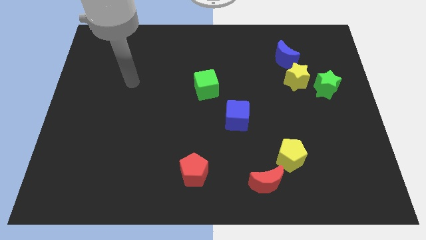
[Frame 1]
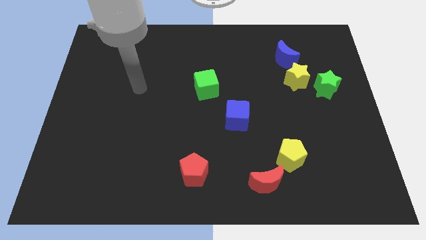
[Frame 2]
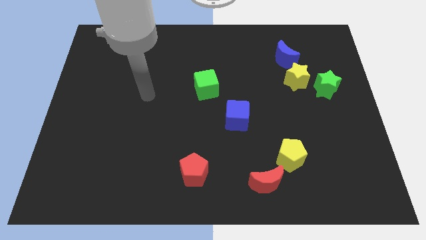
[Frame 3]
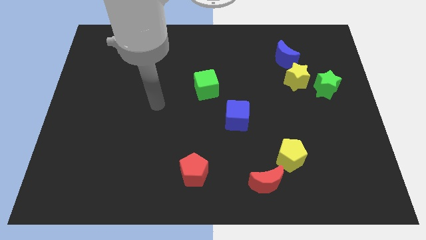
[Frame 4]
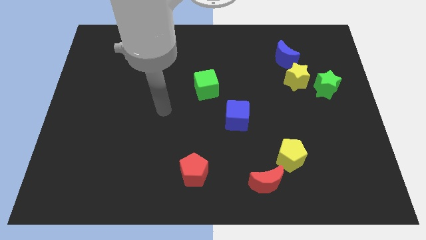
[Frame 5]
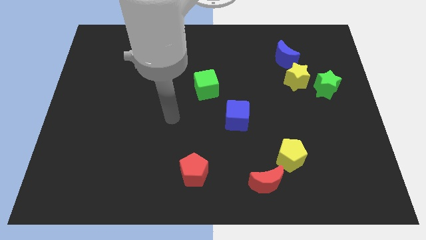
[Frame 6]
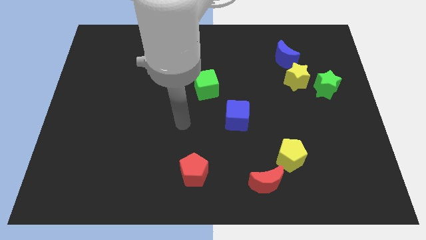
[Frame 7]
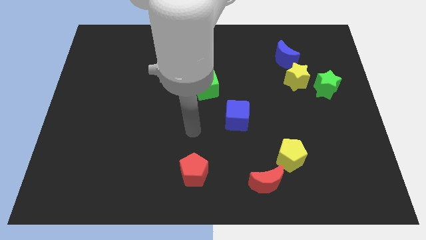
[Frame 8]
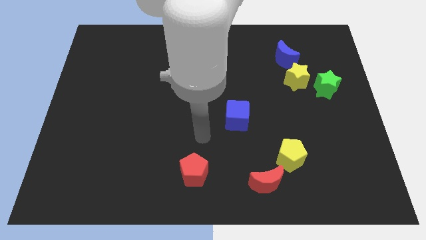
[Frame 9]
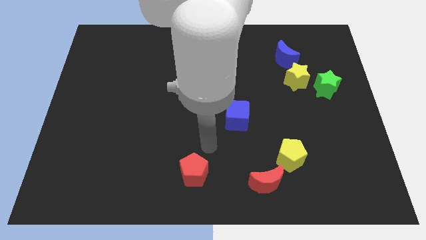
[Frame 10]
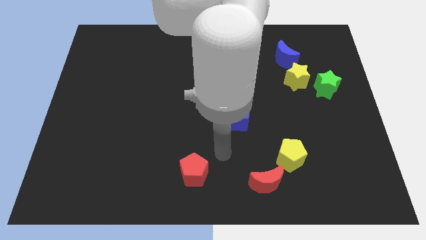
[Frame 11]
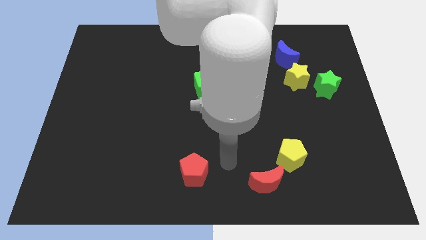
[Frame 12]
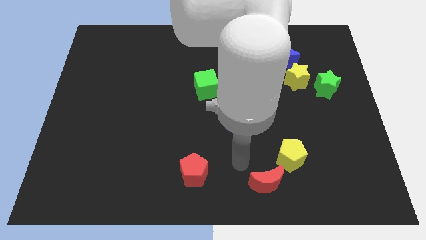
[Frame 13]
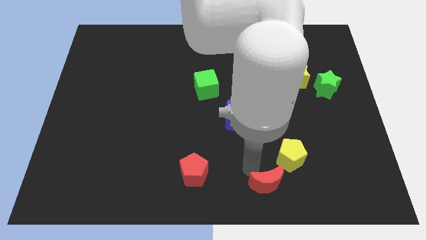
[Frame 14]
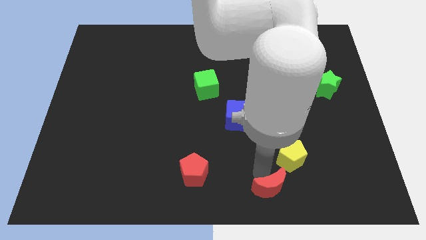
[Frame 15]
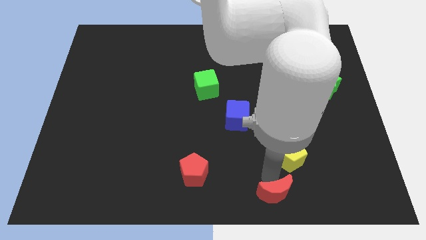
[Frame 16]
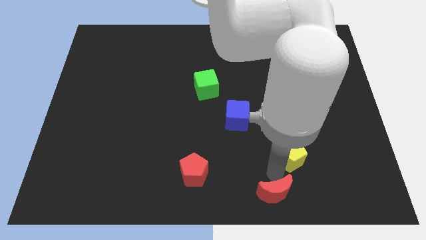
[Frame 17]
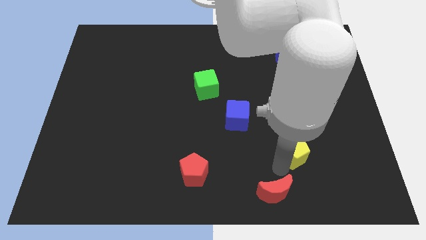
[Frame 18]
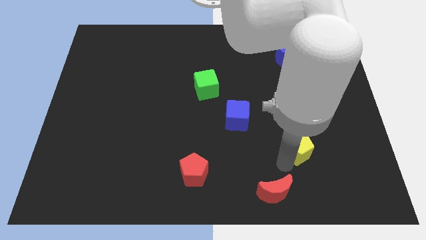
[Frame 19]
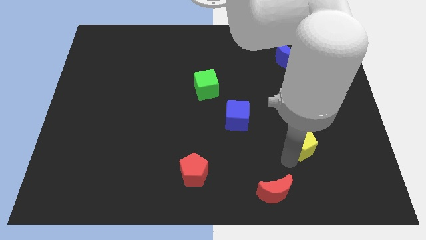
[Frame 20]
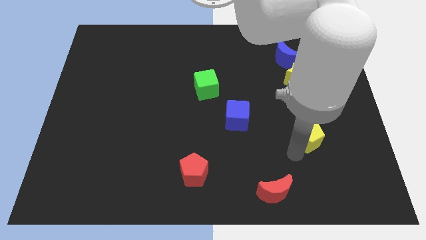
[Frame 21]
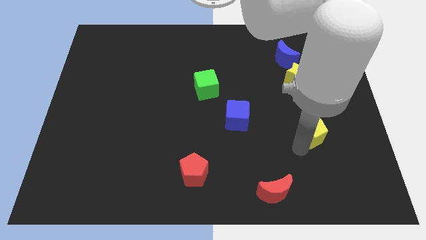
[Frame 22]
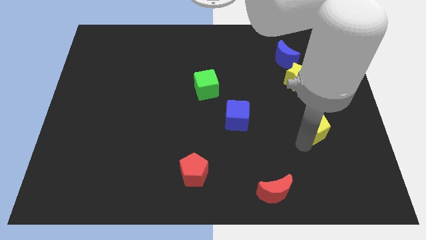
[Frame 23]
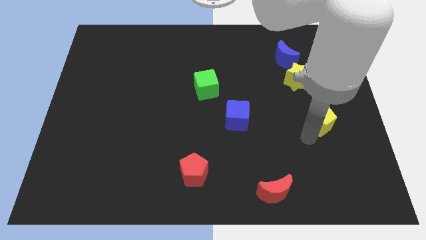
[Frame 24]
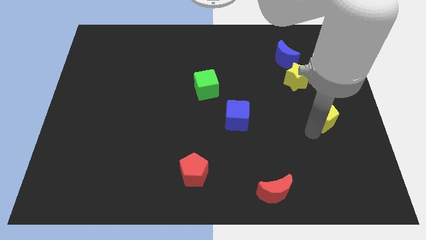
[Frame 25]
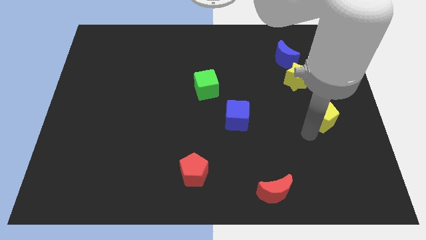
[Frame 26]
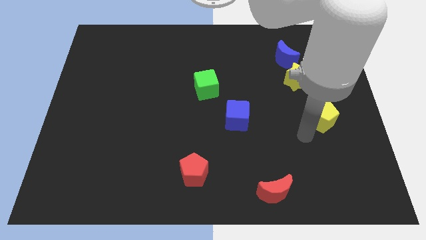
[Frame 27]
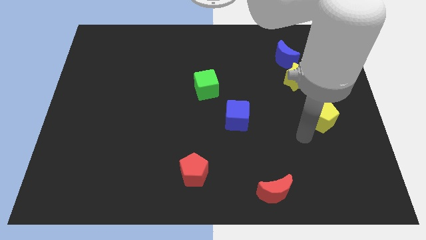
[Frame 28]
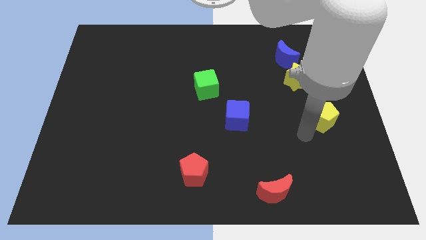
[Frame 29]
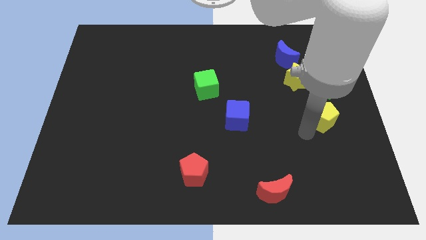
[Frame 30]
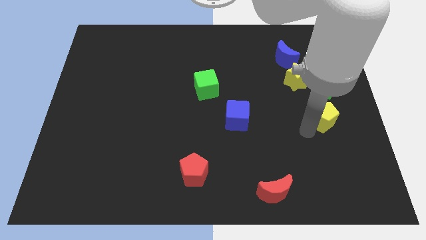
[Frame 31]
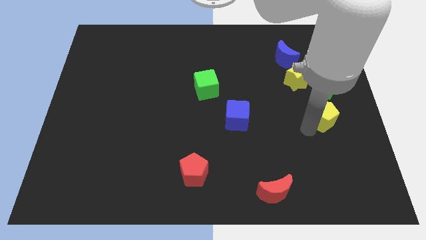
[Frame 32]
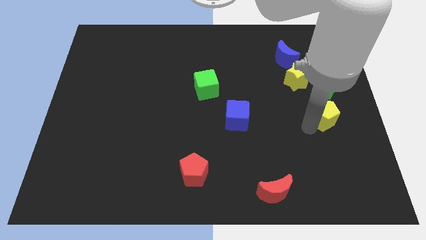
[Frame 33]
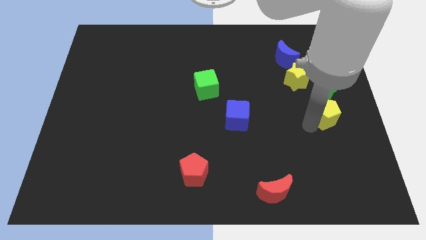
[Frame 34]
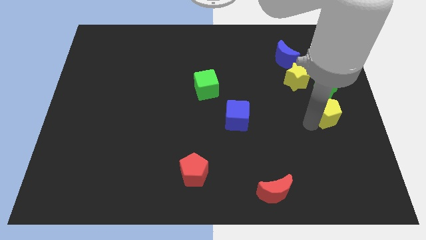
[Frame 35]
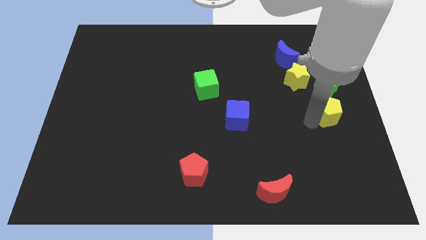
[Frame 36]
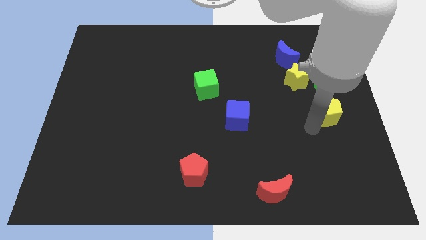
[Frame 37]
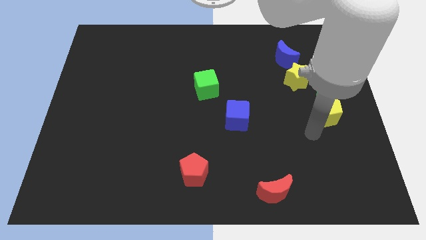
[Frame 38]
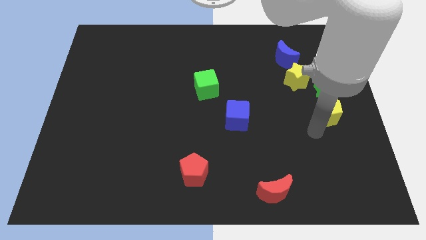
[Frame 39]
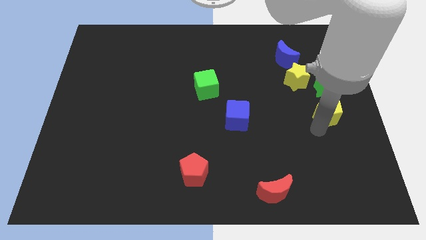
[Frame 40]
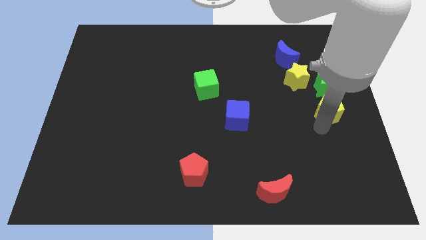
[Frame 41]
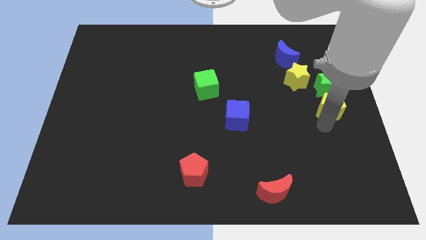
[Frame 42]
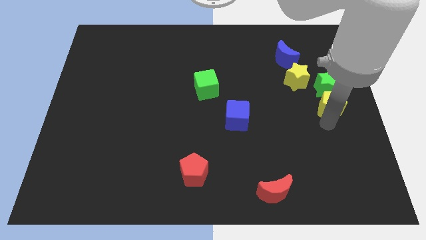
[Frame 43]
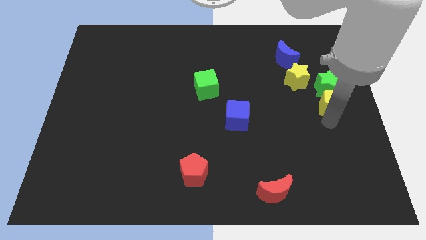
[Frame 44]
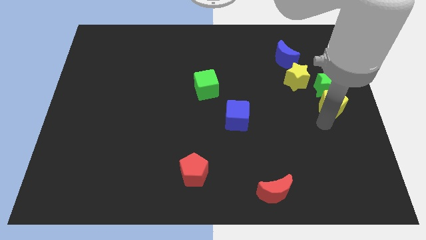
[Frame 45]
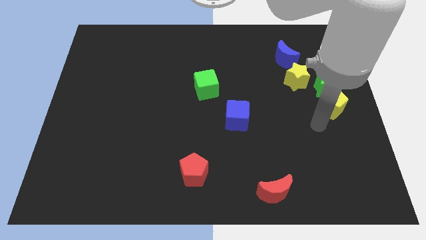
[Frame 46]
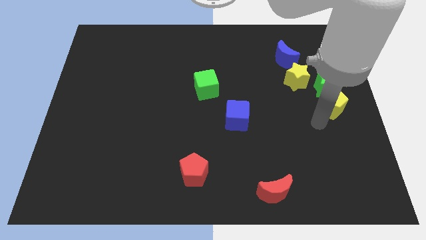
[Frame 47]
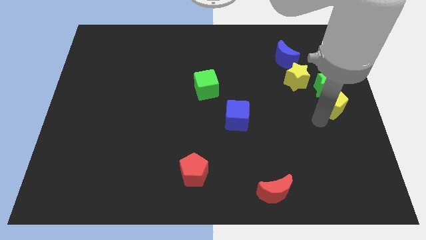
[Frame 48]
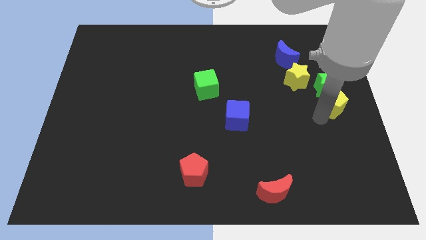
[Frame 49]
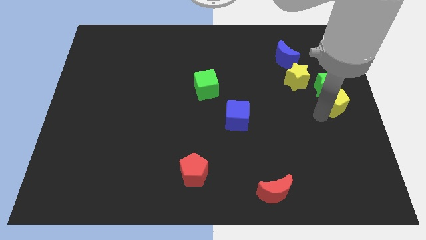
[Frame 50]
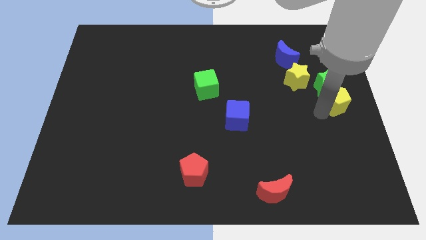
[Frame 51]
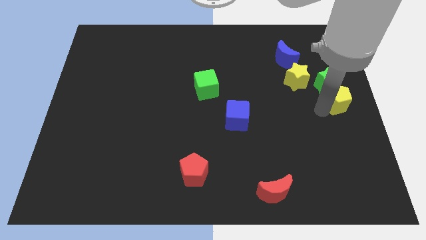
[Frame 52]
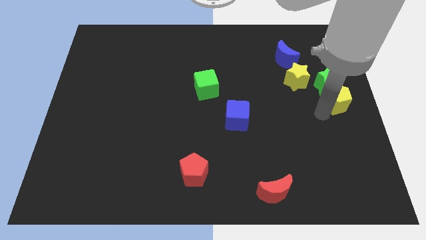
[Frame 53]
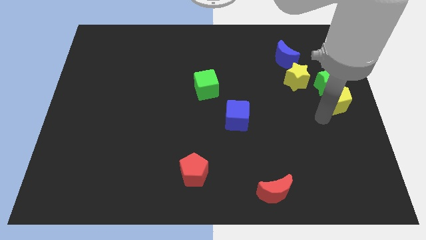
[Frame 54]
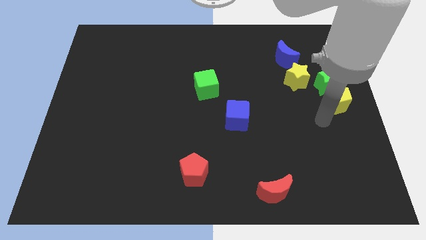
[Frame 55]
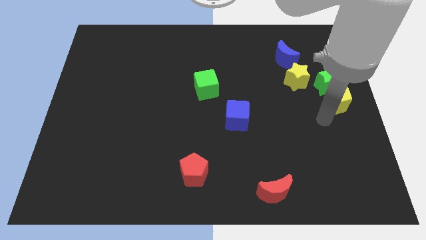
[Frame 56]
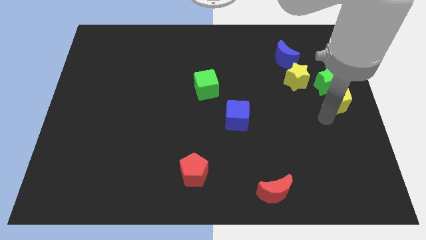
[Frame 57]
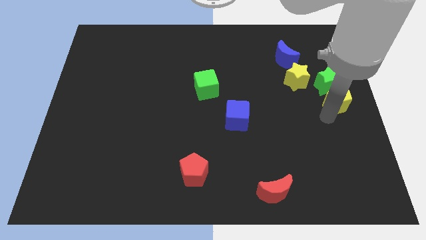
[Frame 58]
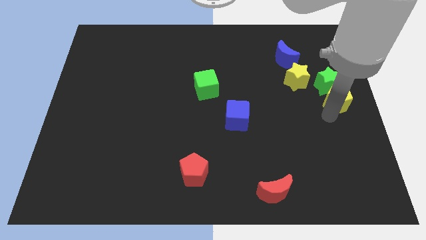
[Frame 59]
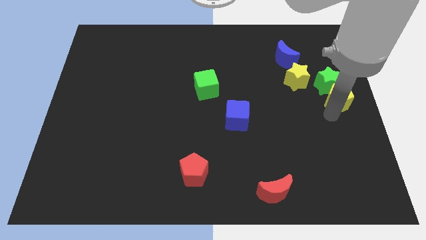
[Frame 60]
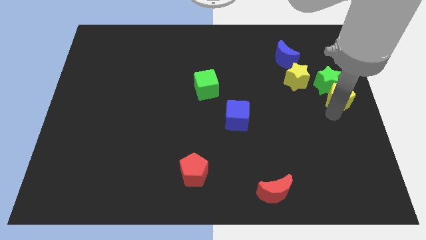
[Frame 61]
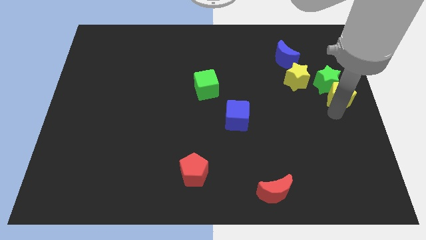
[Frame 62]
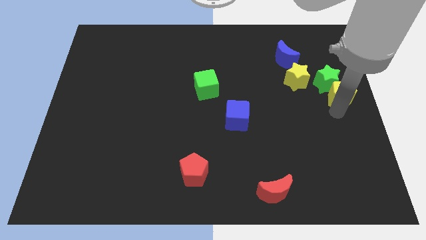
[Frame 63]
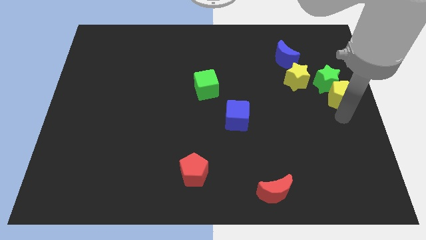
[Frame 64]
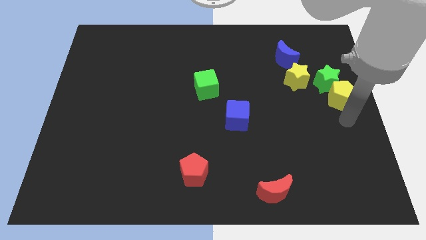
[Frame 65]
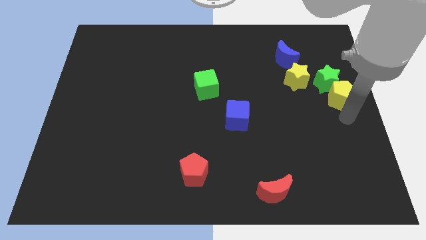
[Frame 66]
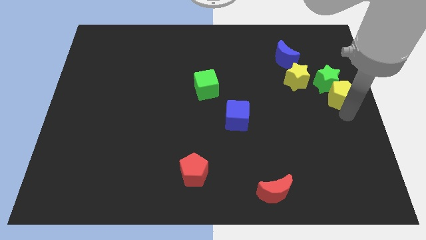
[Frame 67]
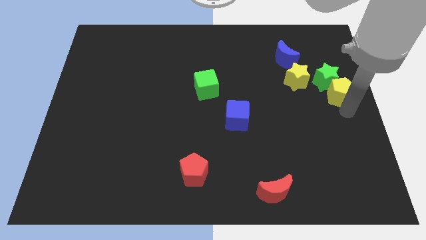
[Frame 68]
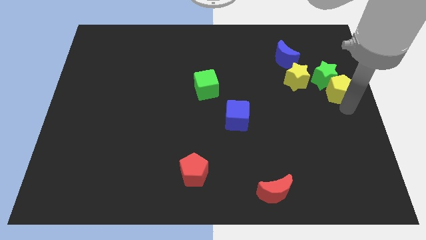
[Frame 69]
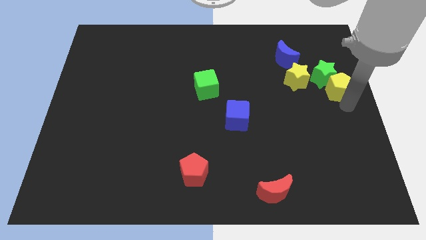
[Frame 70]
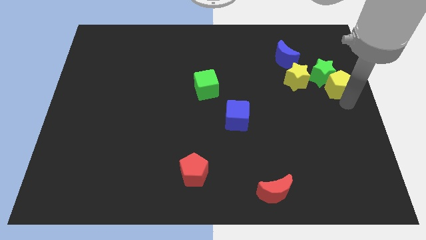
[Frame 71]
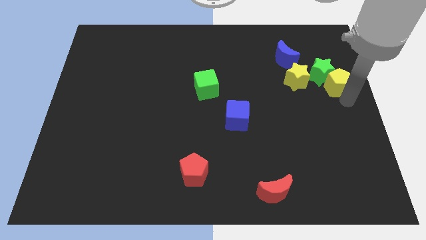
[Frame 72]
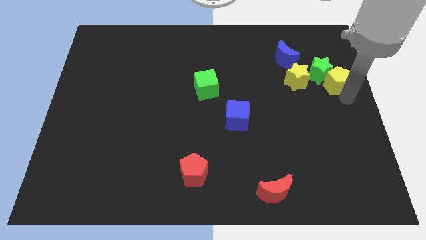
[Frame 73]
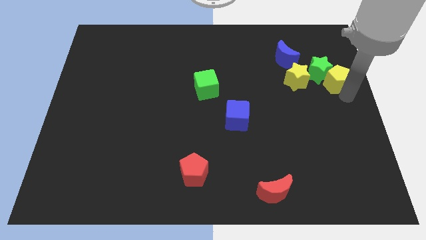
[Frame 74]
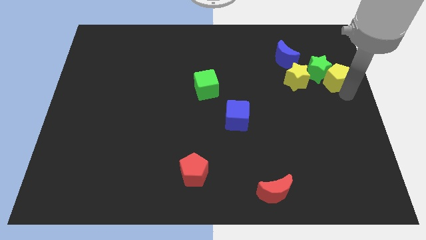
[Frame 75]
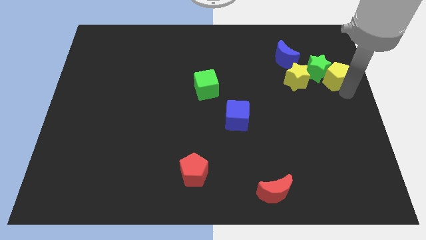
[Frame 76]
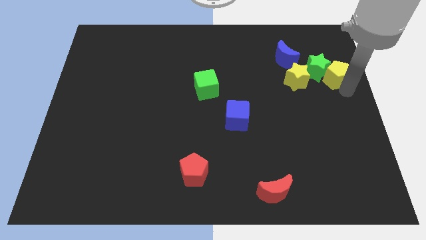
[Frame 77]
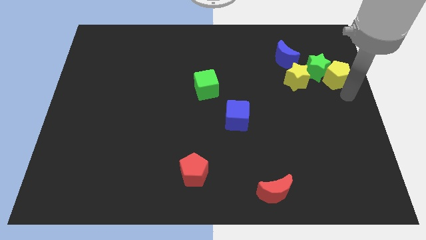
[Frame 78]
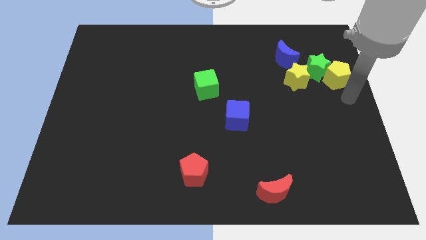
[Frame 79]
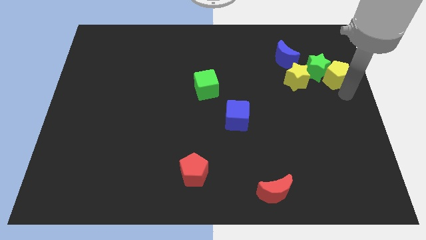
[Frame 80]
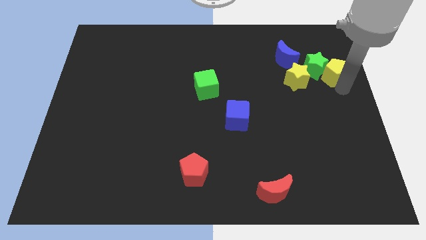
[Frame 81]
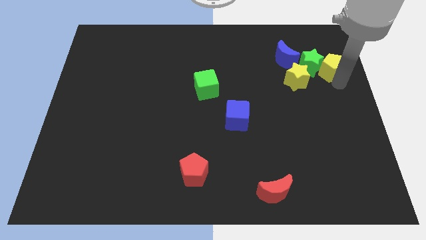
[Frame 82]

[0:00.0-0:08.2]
slide the yellow pentagon to the right of the blue moon
